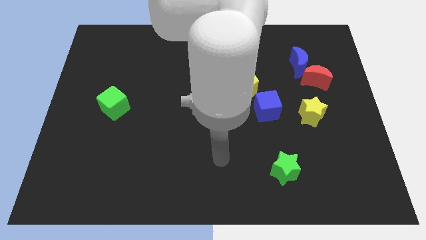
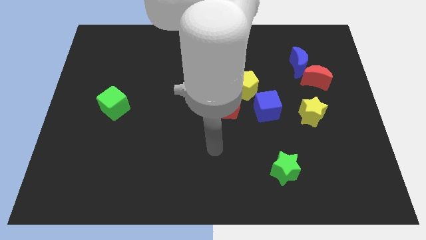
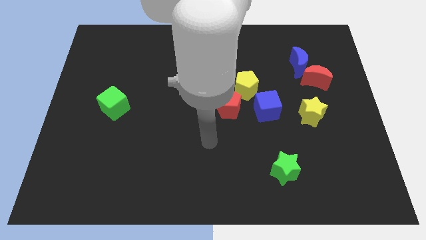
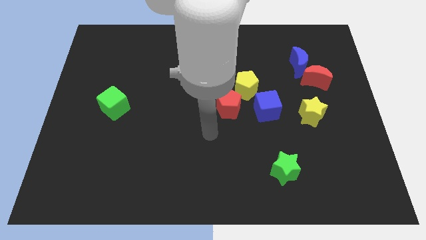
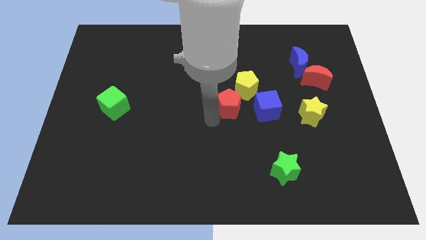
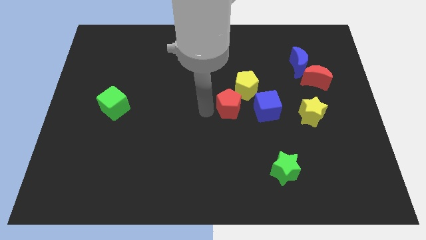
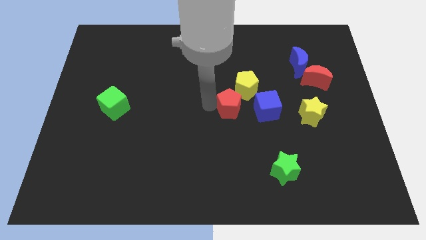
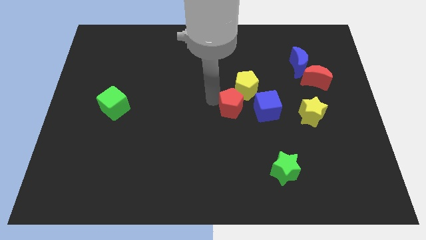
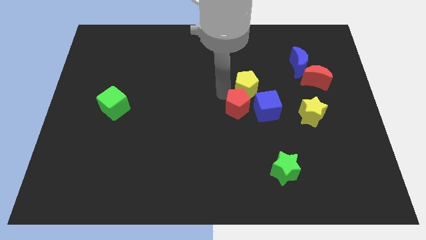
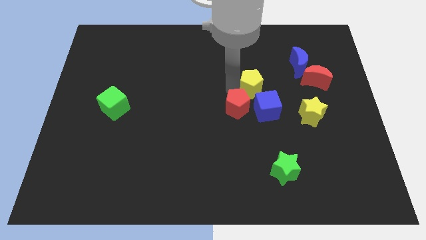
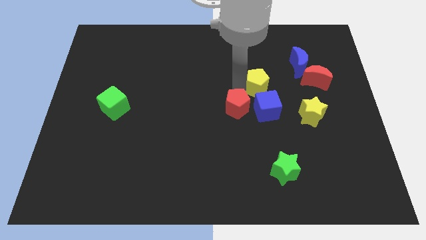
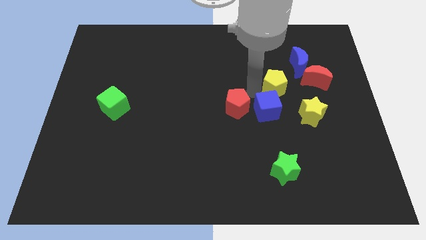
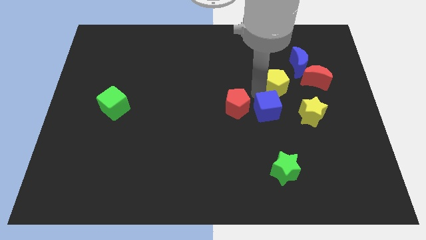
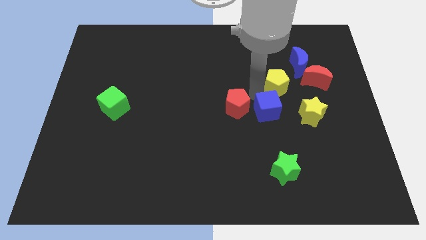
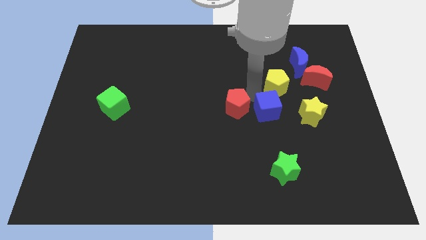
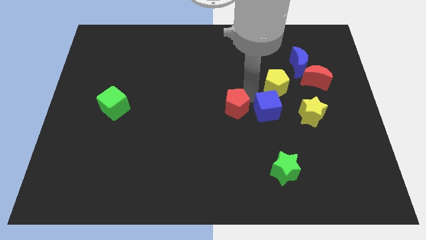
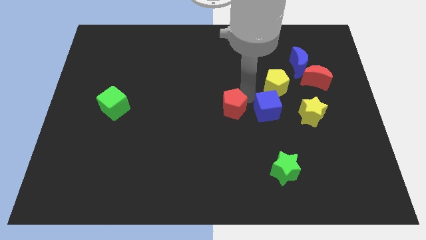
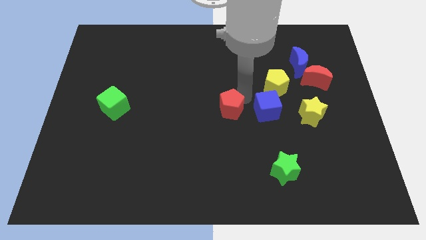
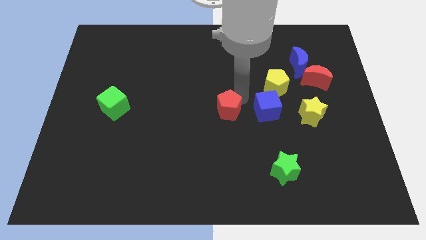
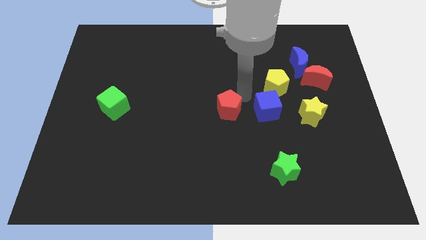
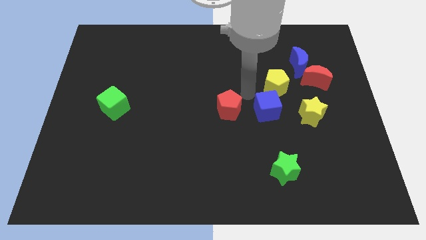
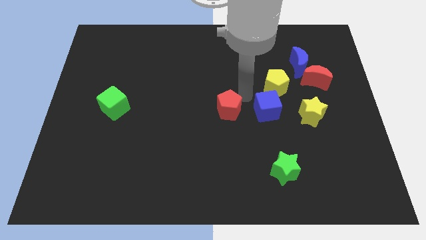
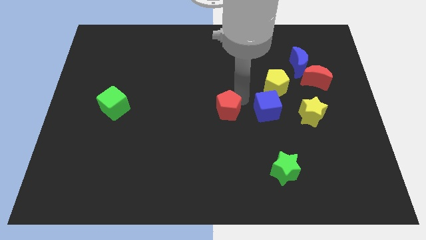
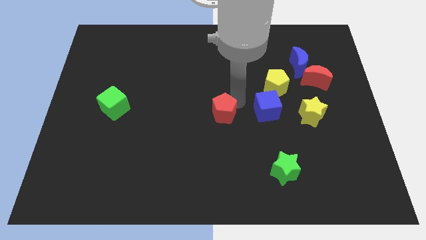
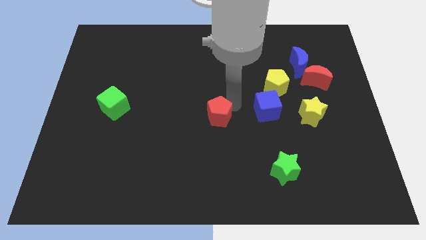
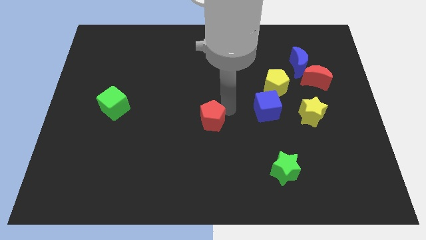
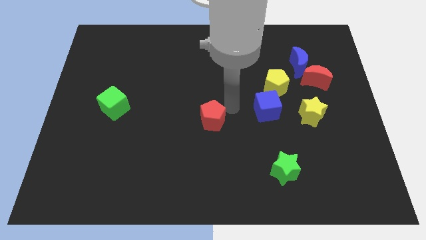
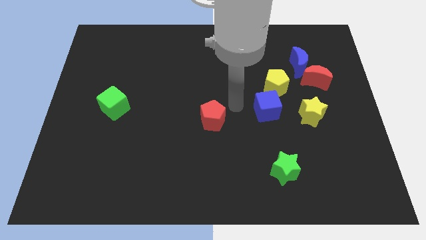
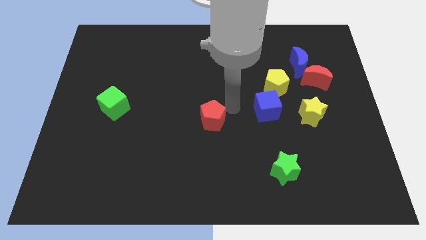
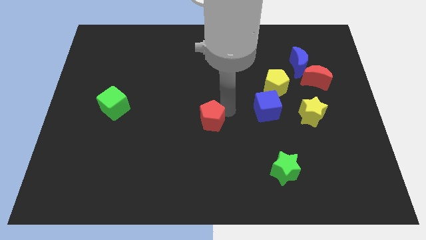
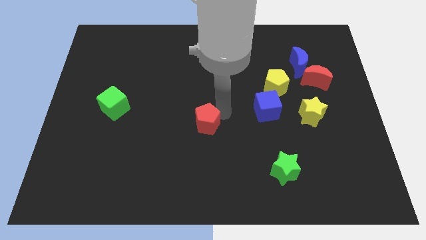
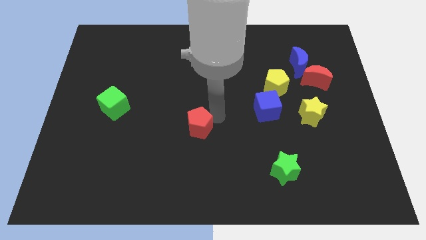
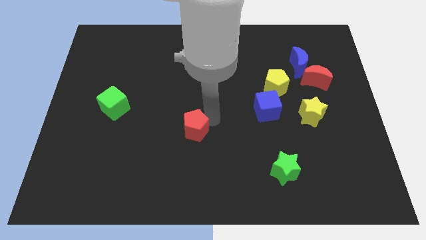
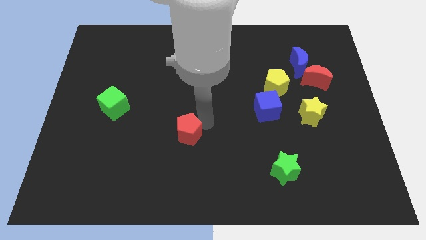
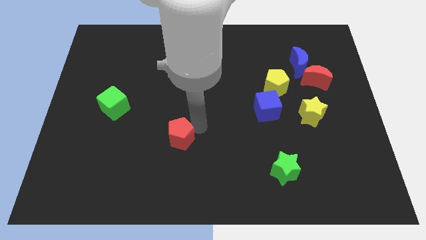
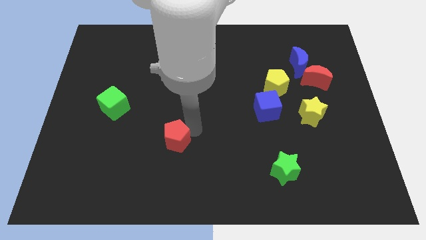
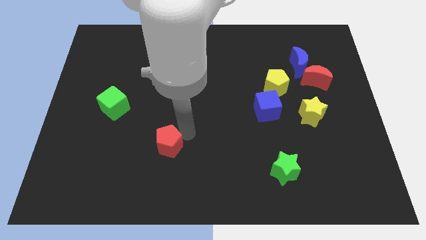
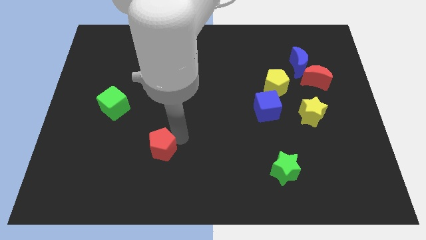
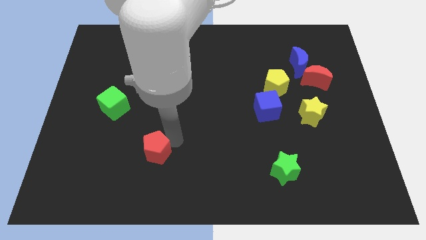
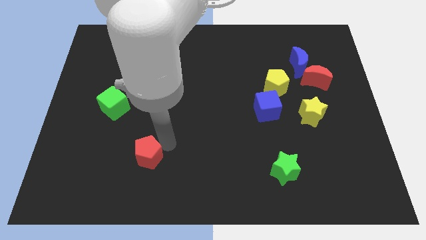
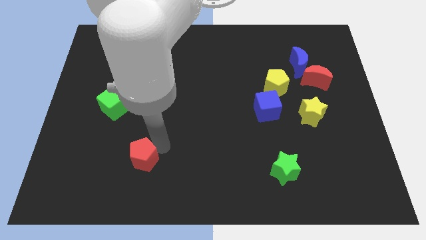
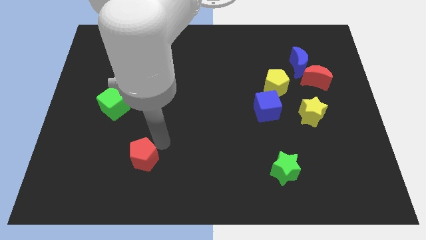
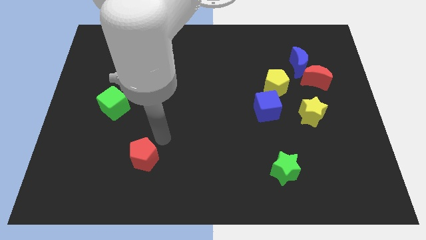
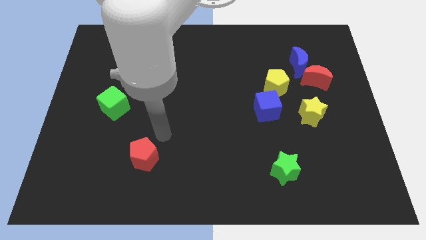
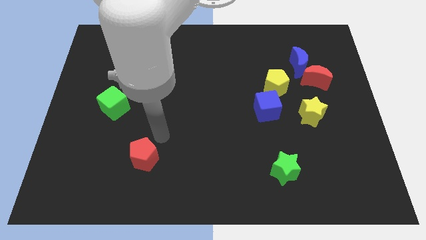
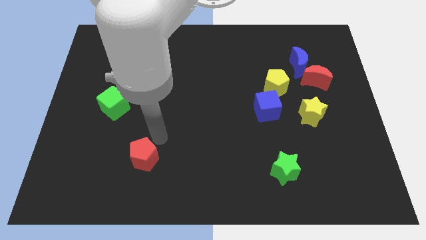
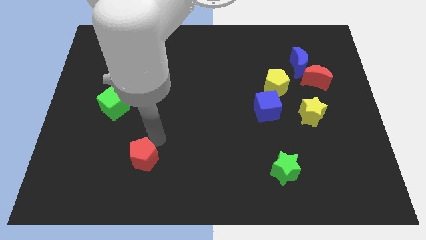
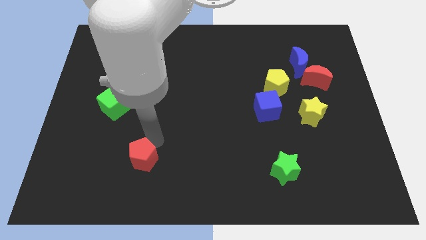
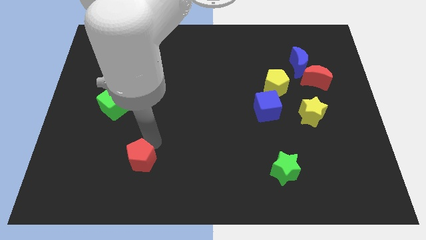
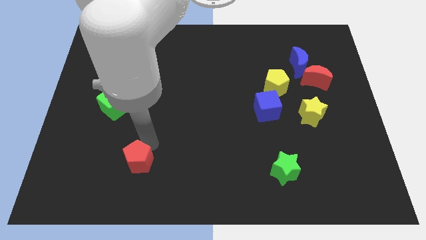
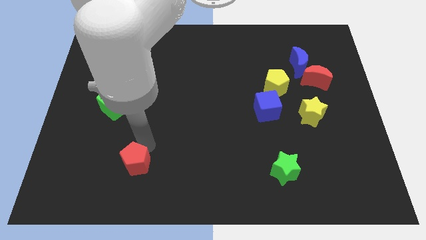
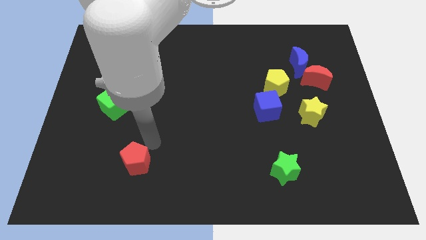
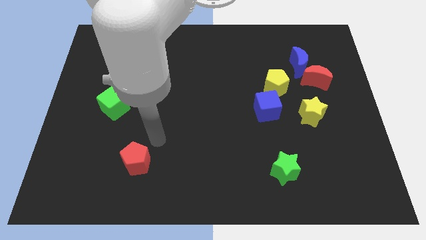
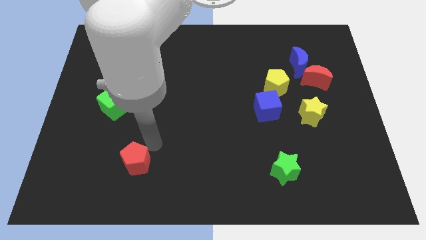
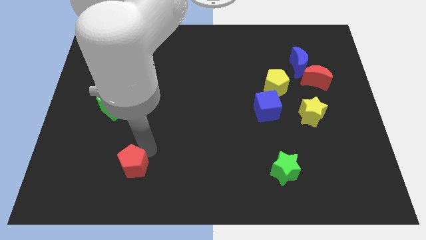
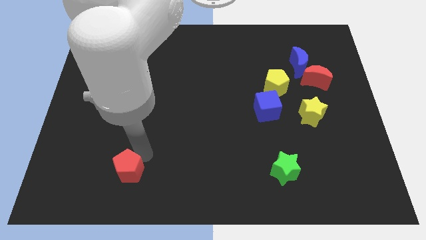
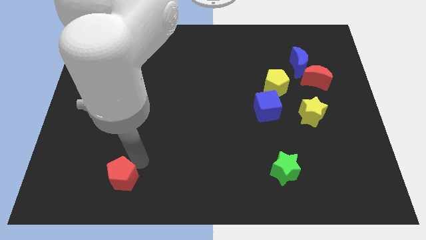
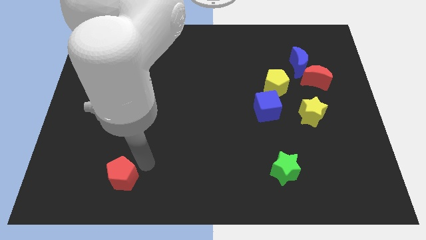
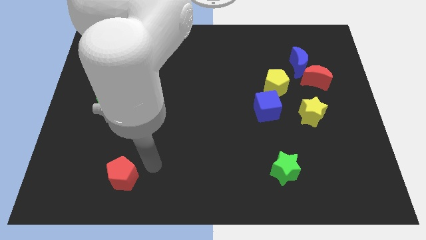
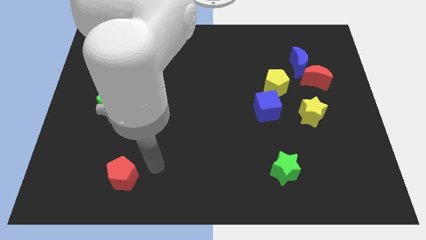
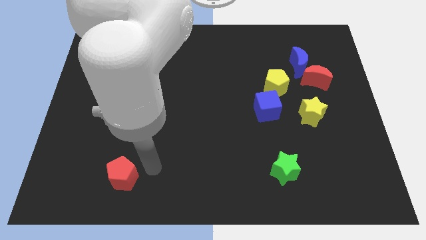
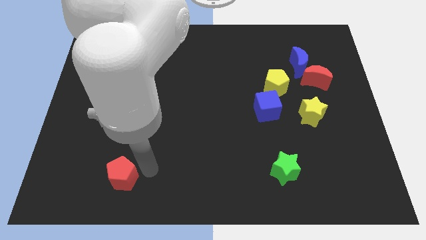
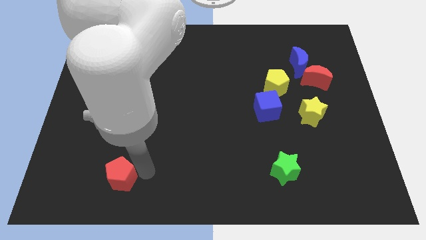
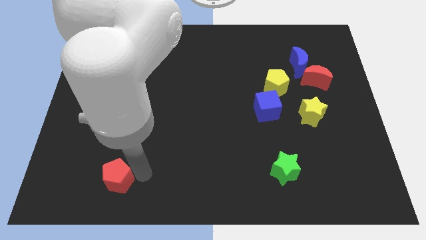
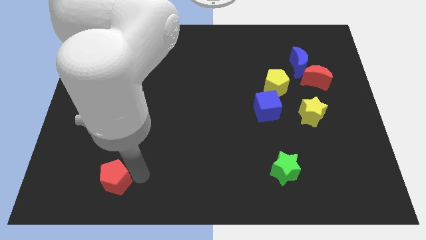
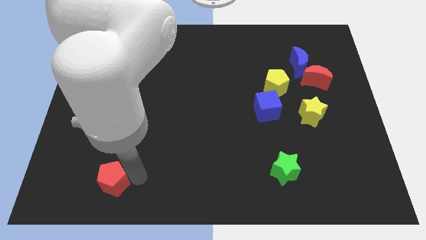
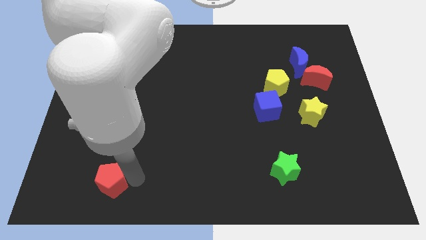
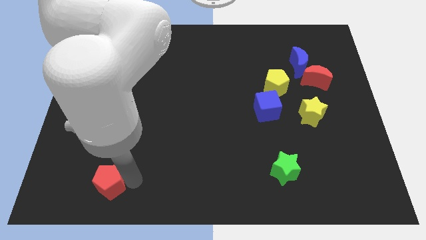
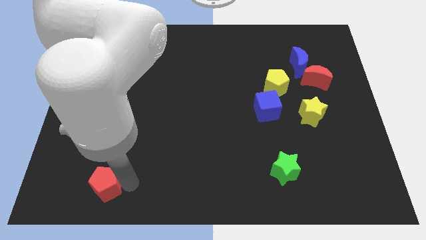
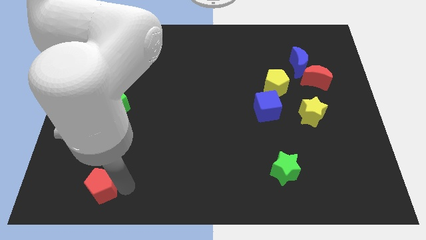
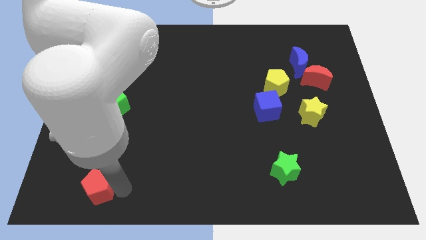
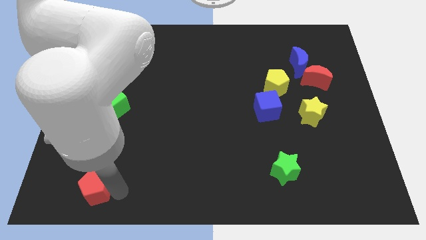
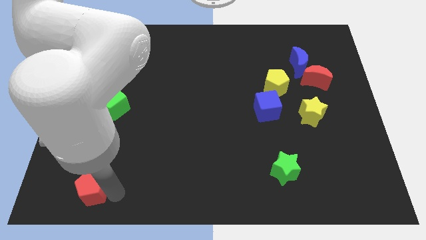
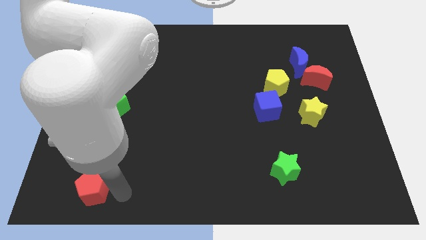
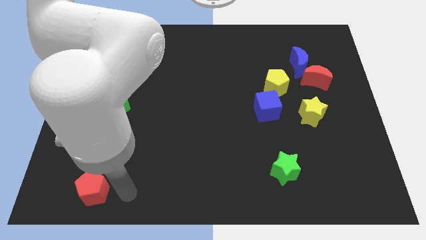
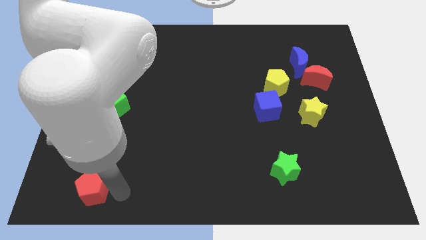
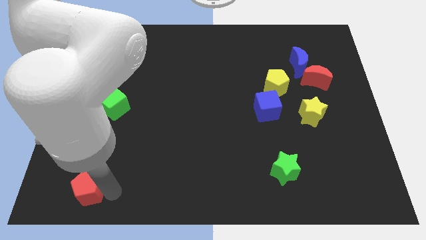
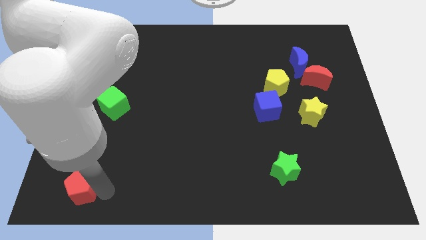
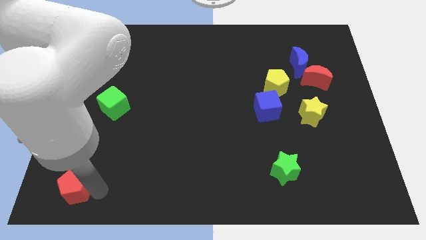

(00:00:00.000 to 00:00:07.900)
push the red pentagon to the lower left corner
